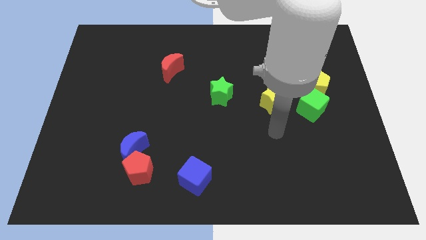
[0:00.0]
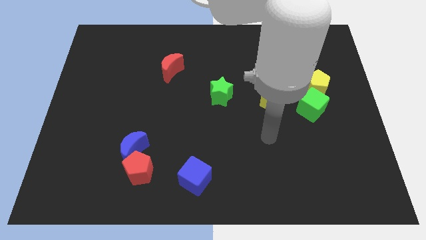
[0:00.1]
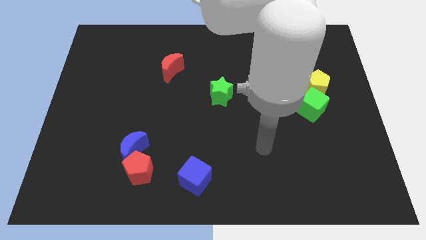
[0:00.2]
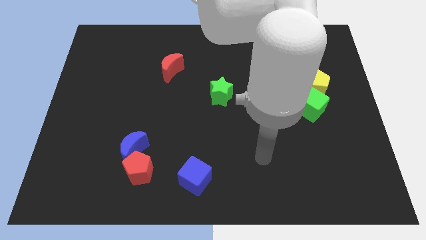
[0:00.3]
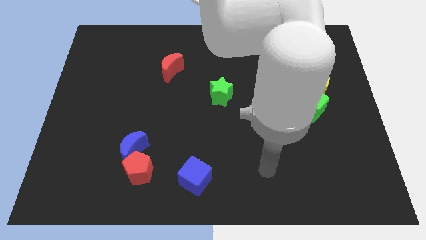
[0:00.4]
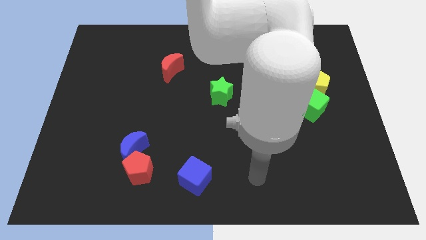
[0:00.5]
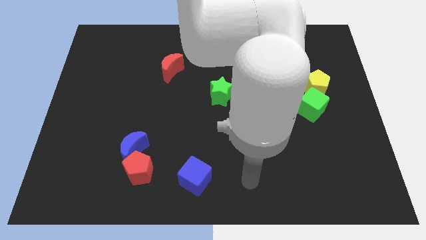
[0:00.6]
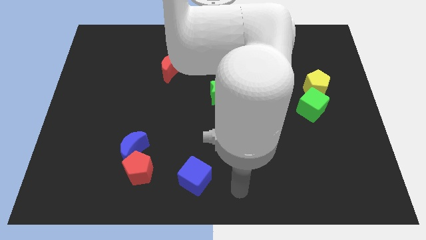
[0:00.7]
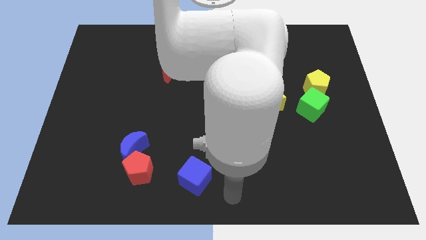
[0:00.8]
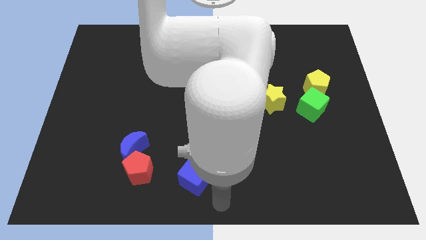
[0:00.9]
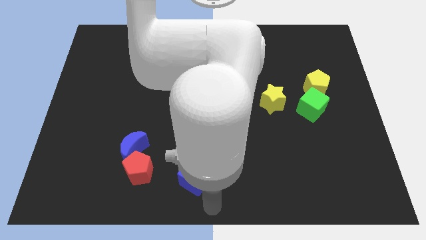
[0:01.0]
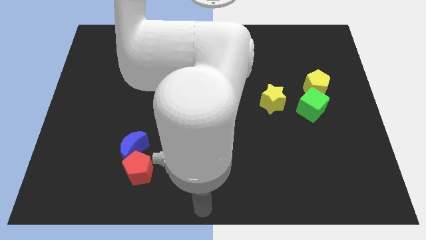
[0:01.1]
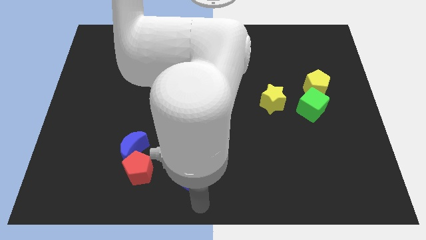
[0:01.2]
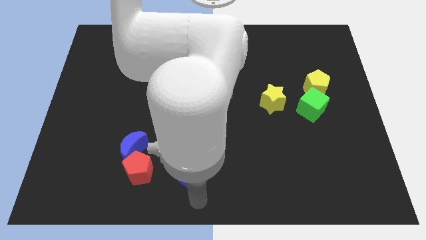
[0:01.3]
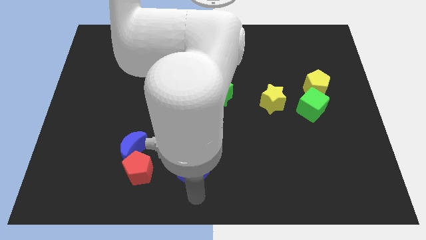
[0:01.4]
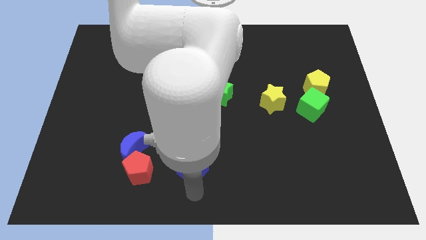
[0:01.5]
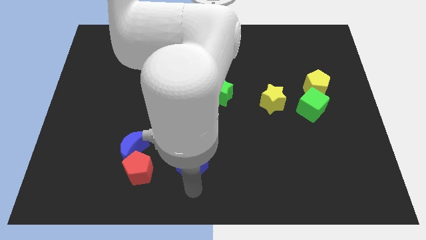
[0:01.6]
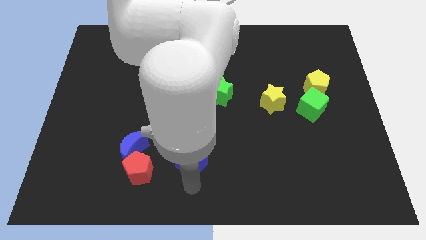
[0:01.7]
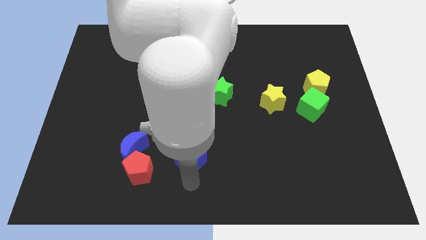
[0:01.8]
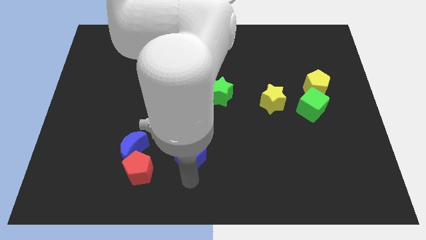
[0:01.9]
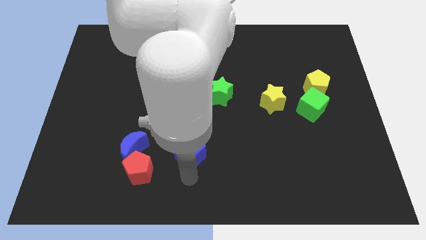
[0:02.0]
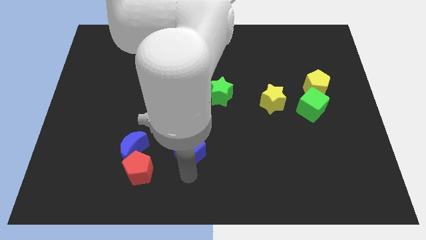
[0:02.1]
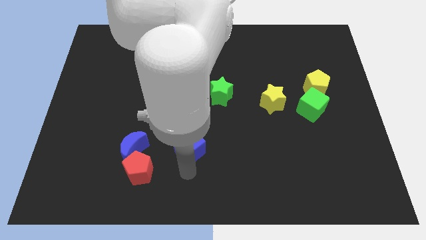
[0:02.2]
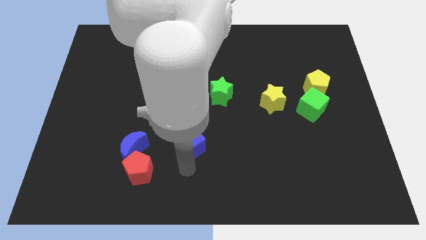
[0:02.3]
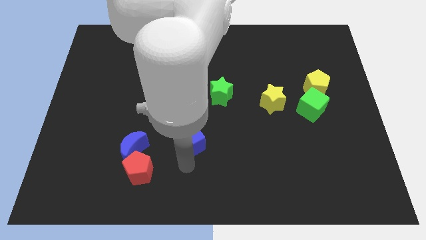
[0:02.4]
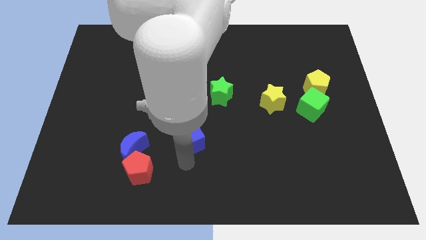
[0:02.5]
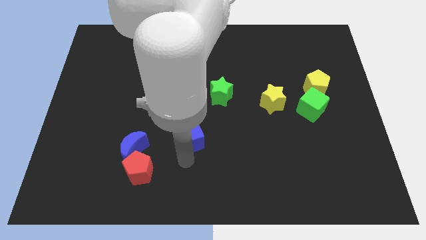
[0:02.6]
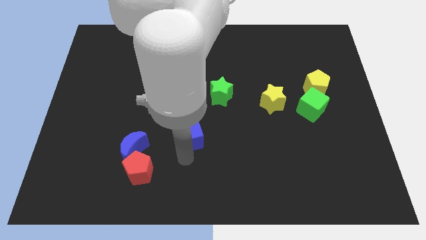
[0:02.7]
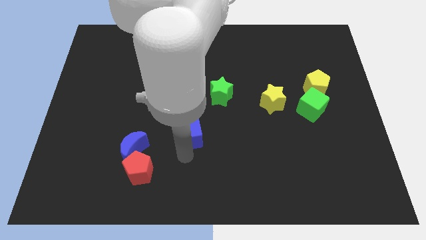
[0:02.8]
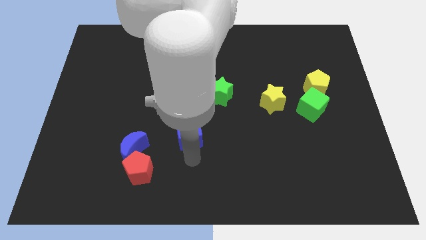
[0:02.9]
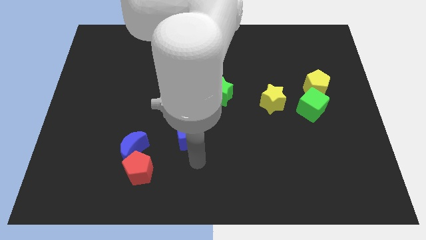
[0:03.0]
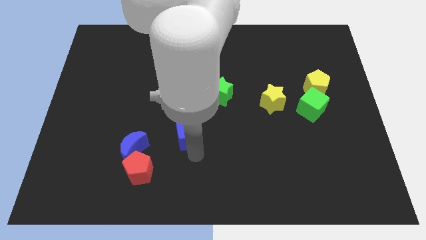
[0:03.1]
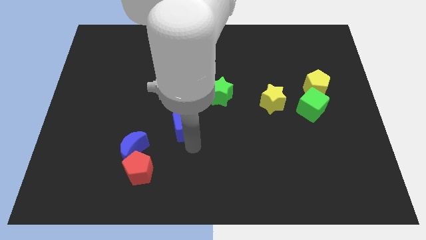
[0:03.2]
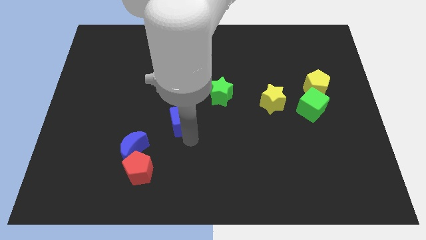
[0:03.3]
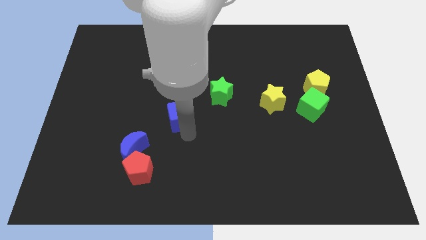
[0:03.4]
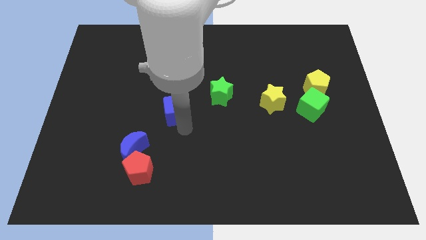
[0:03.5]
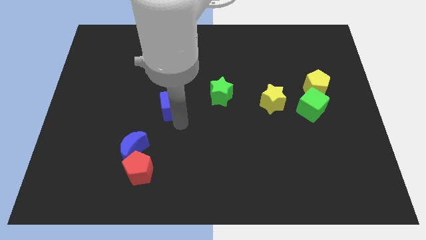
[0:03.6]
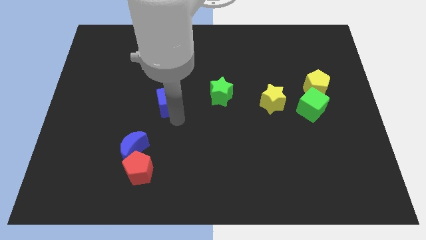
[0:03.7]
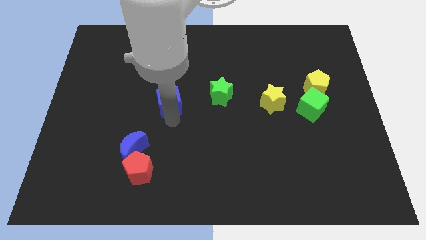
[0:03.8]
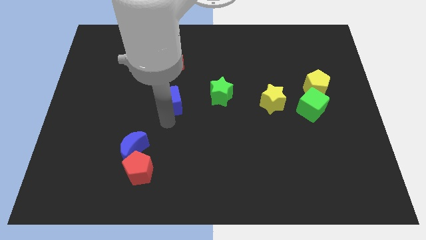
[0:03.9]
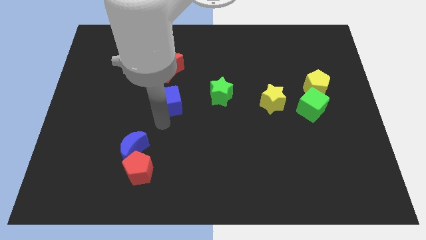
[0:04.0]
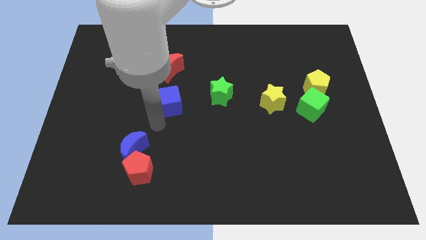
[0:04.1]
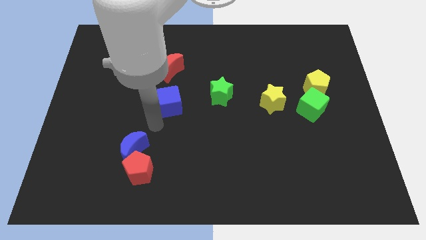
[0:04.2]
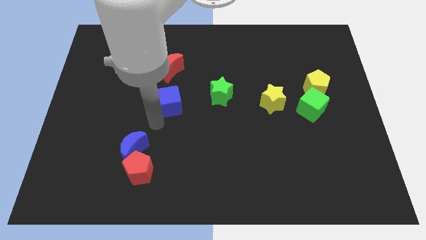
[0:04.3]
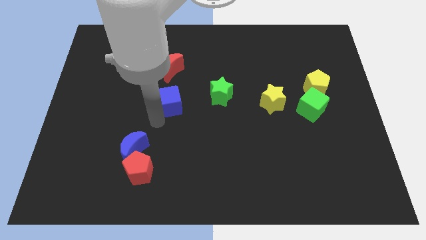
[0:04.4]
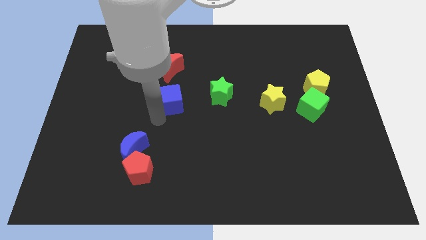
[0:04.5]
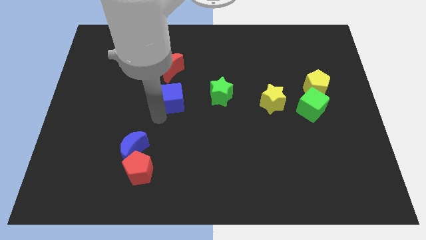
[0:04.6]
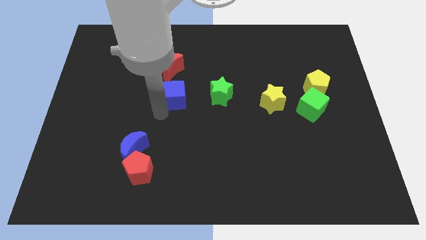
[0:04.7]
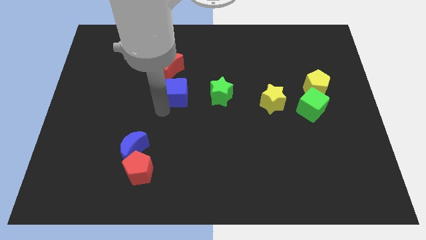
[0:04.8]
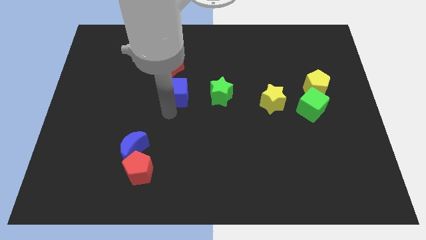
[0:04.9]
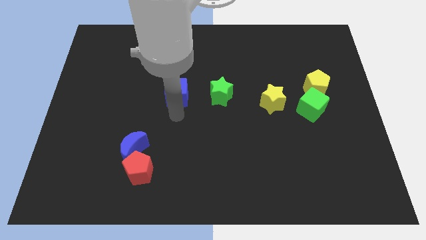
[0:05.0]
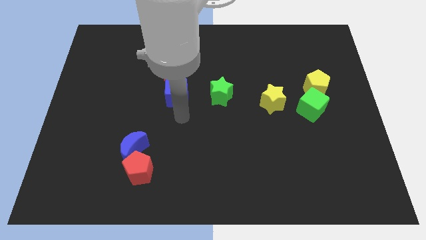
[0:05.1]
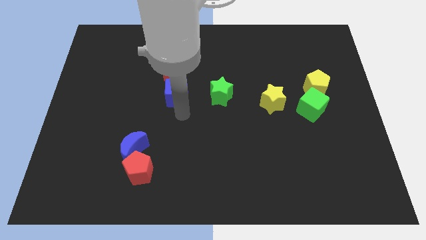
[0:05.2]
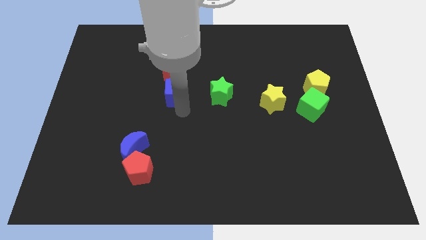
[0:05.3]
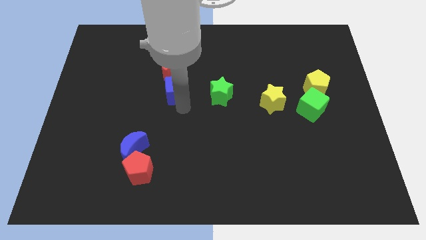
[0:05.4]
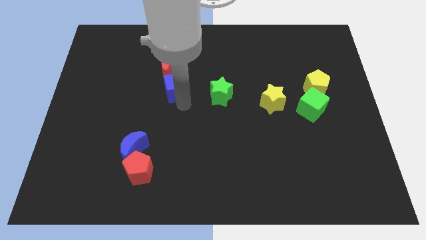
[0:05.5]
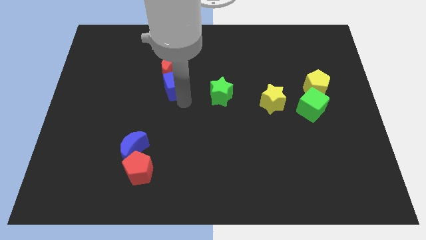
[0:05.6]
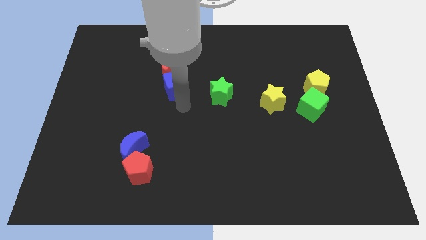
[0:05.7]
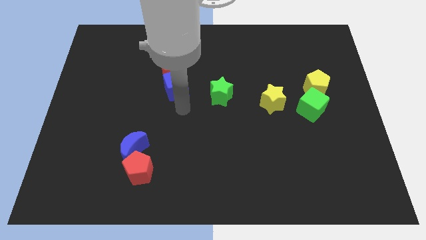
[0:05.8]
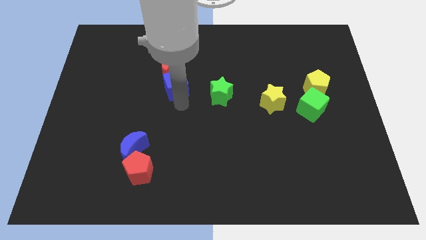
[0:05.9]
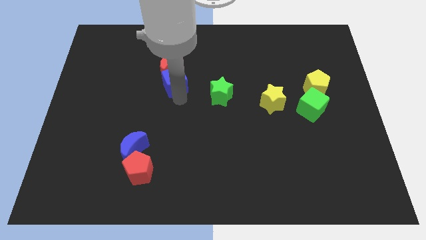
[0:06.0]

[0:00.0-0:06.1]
push the blue cube next to the red moon
